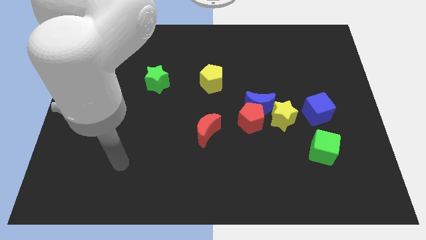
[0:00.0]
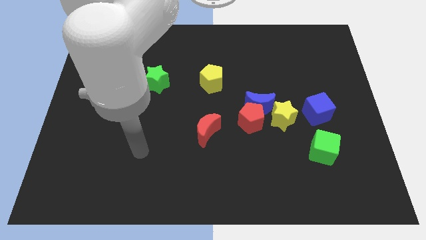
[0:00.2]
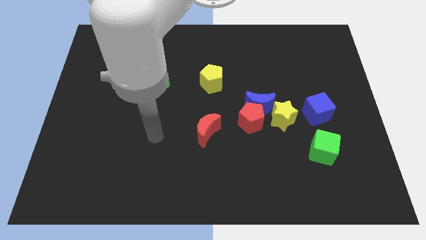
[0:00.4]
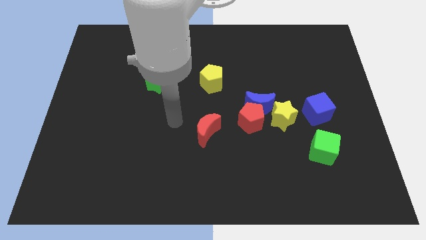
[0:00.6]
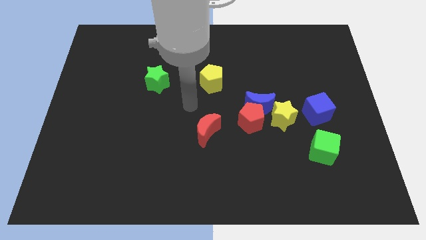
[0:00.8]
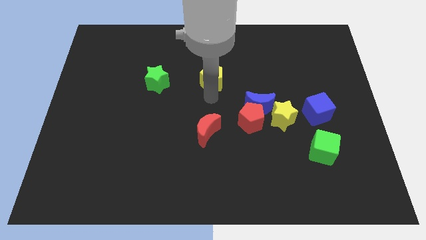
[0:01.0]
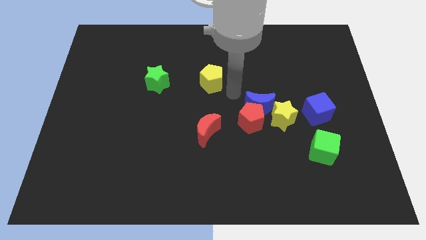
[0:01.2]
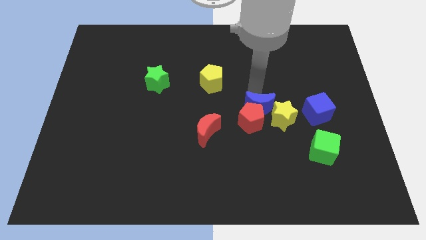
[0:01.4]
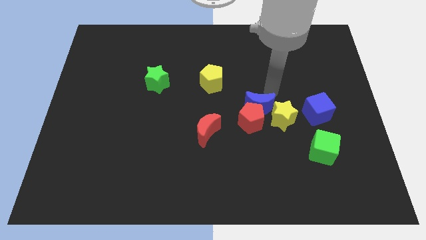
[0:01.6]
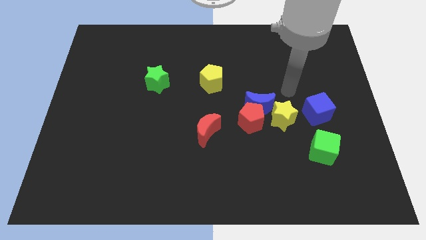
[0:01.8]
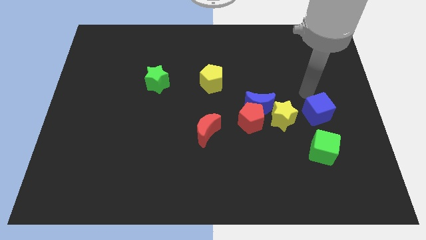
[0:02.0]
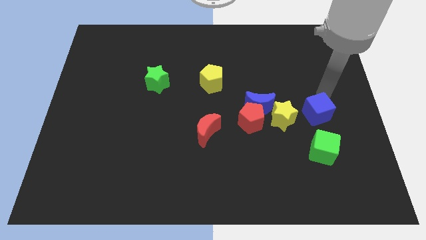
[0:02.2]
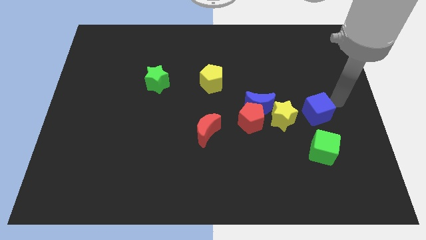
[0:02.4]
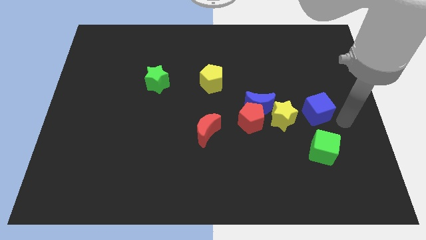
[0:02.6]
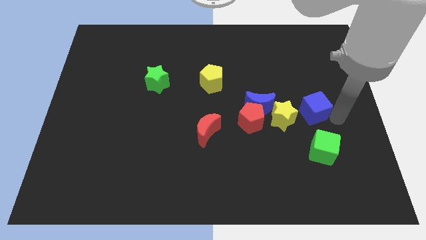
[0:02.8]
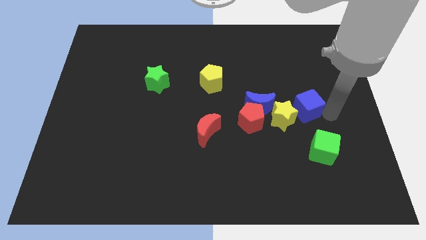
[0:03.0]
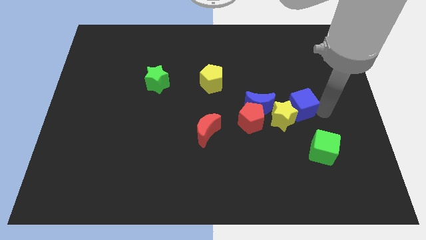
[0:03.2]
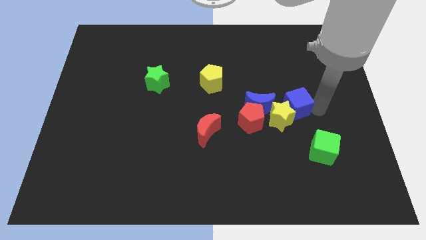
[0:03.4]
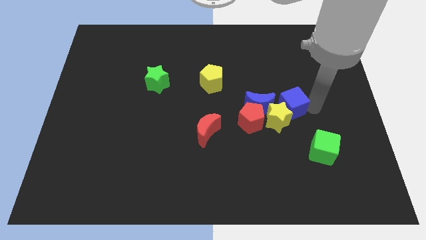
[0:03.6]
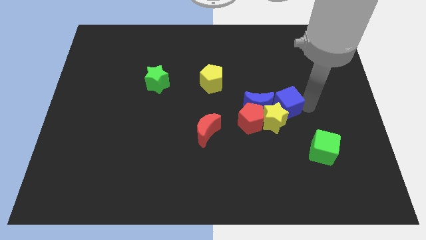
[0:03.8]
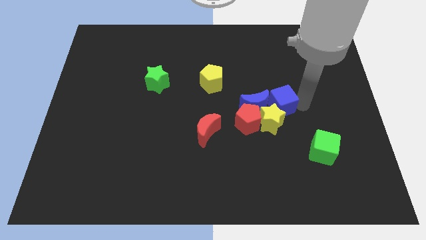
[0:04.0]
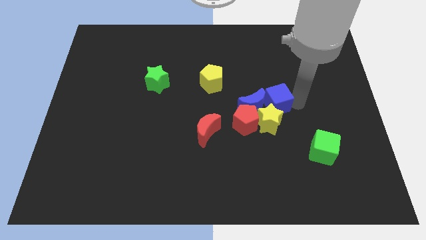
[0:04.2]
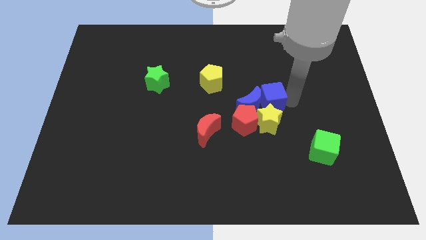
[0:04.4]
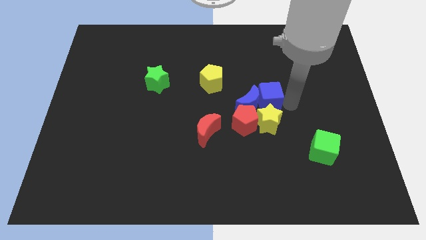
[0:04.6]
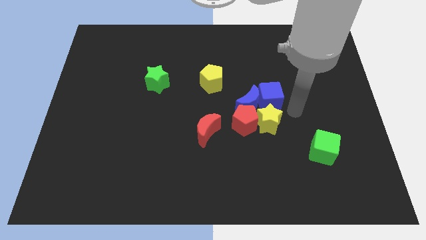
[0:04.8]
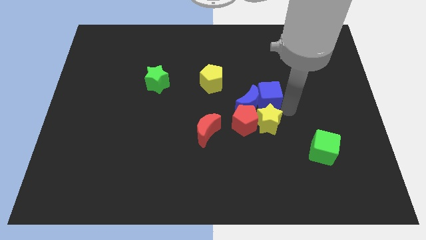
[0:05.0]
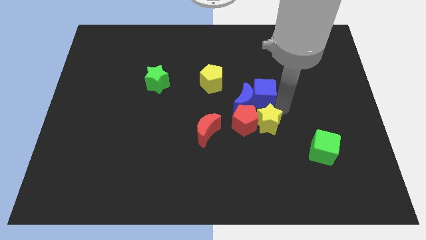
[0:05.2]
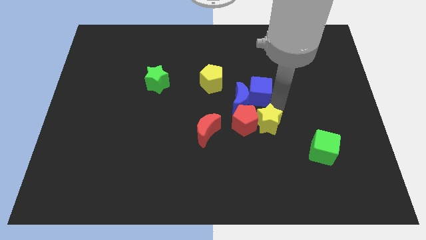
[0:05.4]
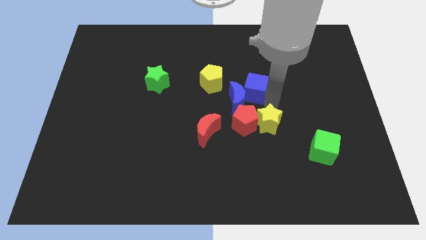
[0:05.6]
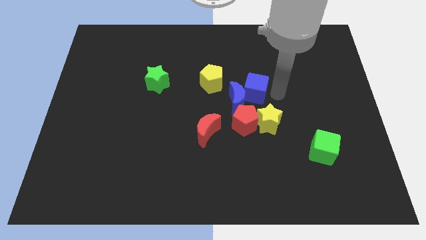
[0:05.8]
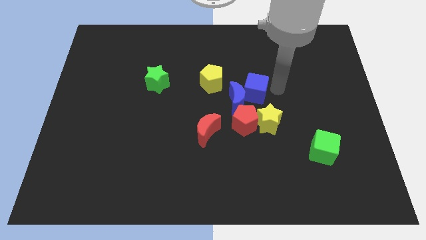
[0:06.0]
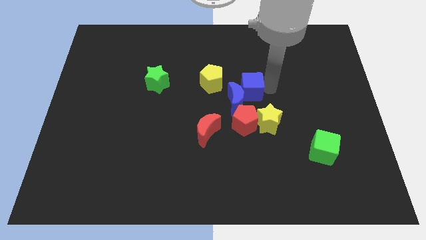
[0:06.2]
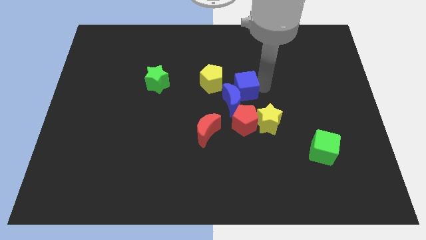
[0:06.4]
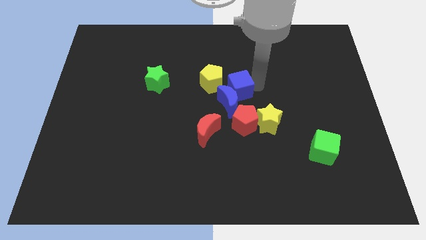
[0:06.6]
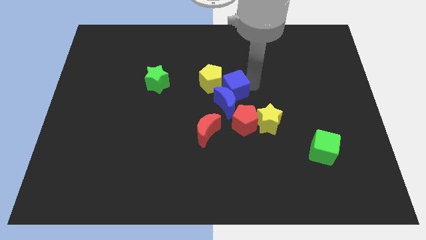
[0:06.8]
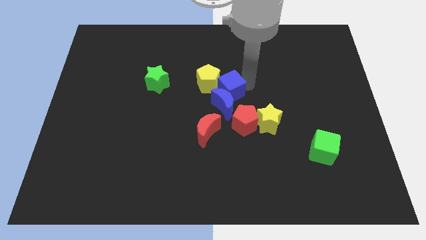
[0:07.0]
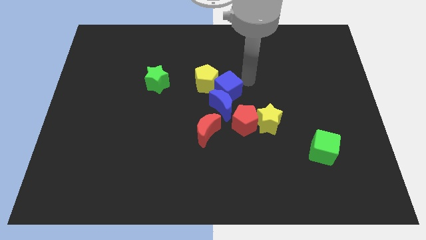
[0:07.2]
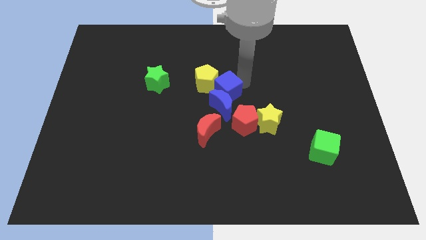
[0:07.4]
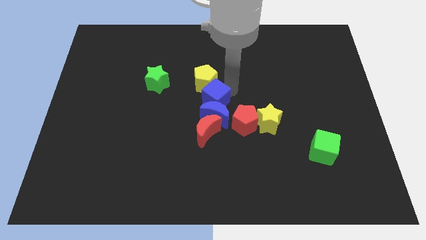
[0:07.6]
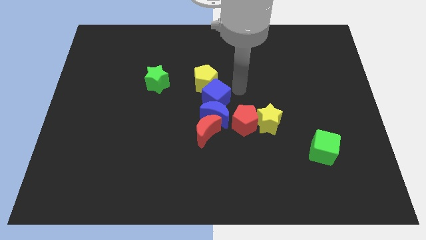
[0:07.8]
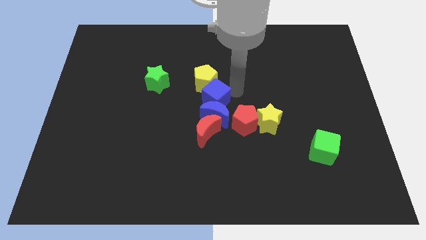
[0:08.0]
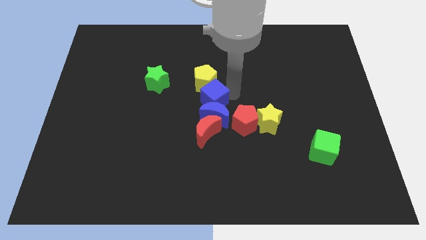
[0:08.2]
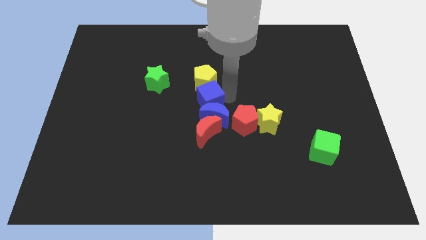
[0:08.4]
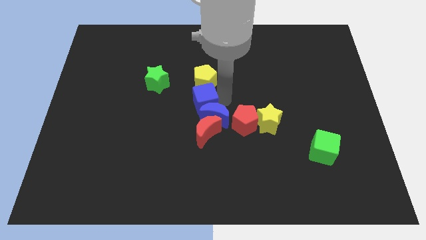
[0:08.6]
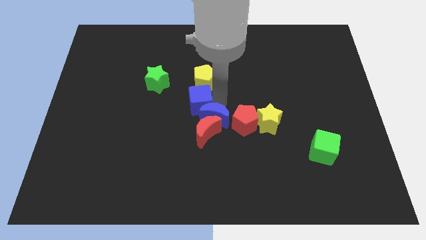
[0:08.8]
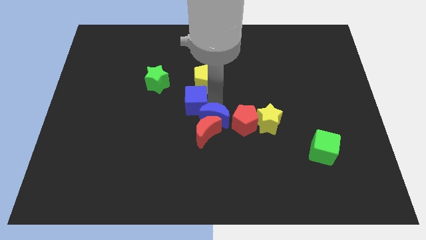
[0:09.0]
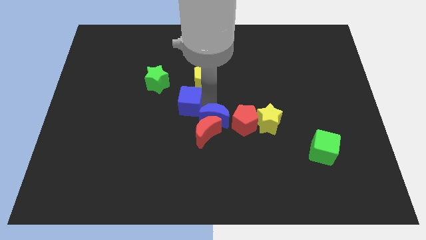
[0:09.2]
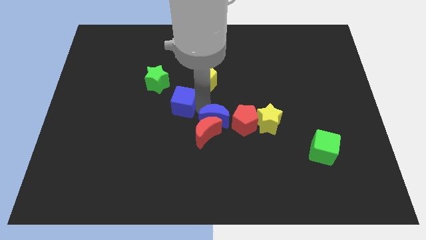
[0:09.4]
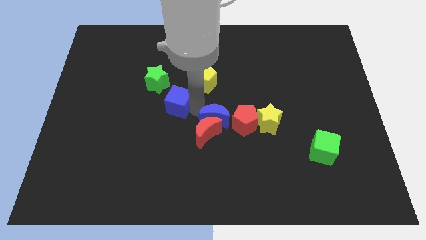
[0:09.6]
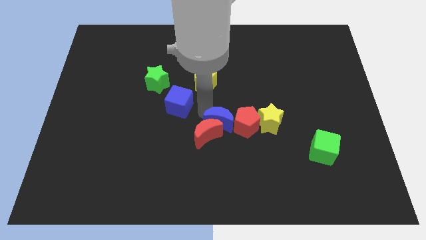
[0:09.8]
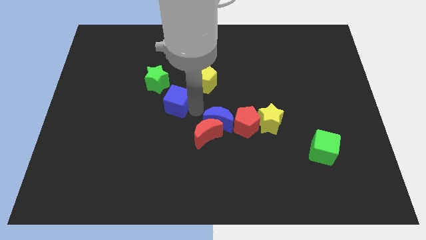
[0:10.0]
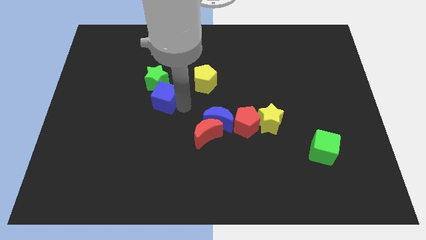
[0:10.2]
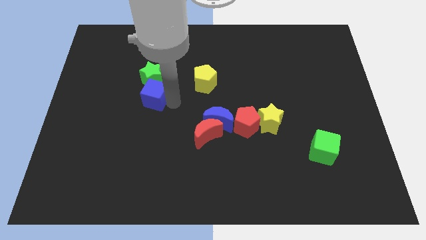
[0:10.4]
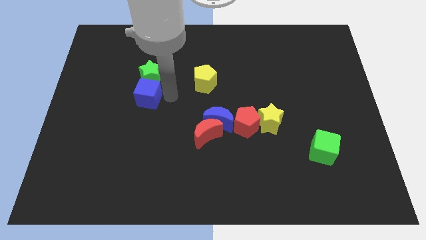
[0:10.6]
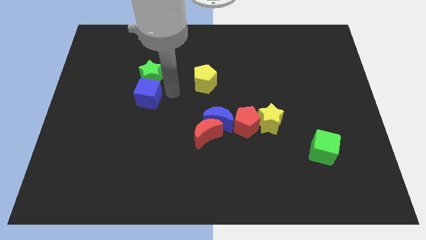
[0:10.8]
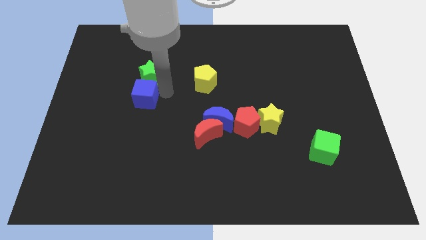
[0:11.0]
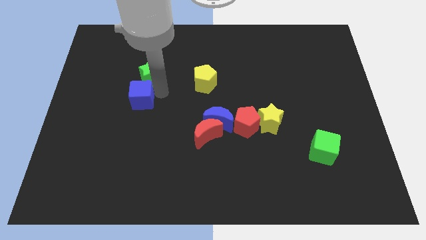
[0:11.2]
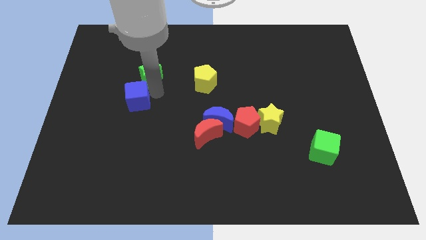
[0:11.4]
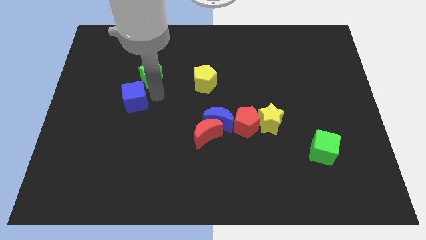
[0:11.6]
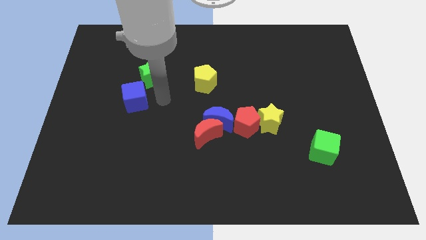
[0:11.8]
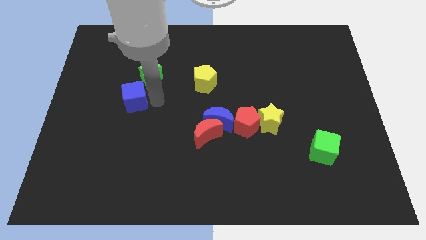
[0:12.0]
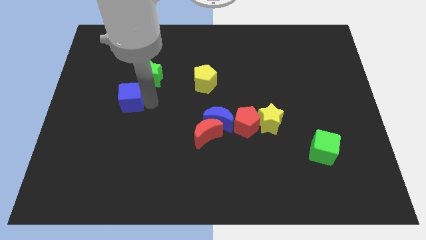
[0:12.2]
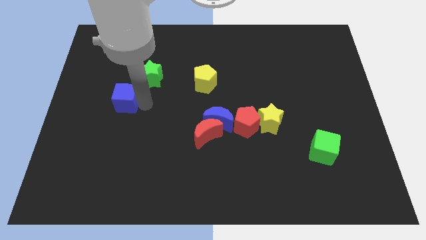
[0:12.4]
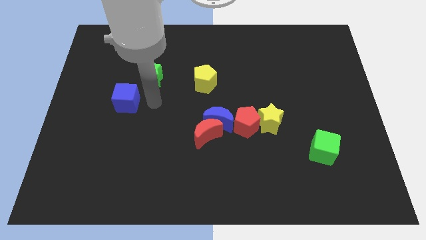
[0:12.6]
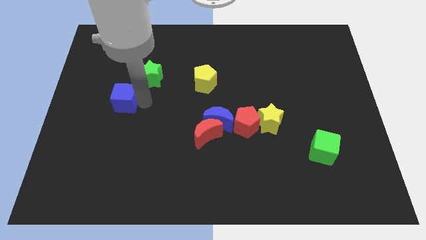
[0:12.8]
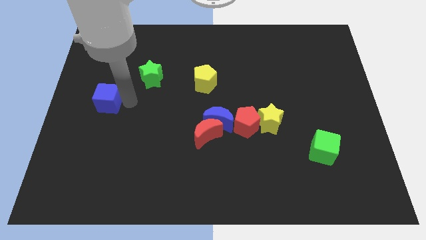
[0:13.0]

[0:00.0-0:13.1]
slide the blue cube to the left side
